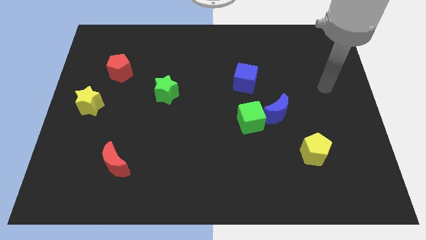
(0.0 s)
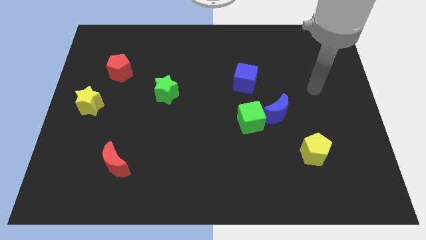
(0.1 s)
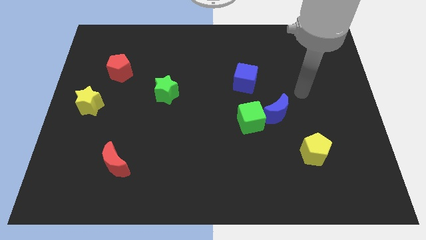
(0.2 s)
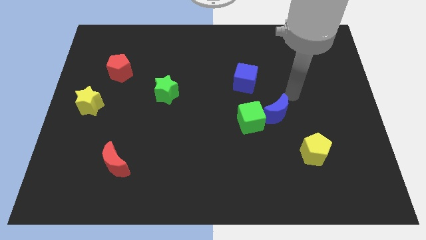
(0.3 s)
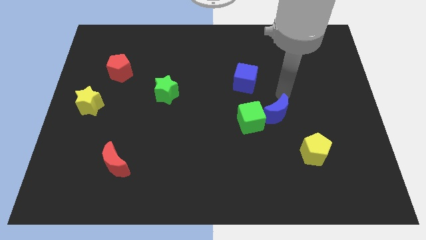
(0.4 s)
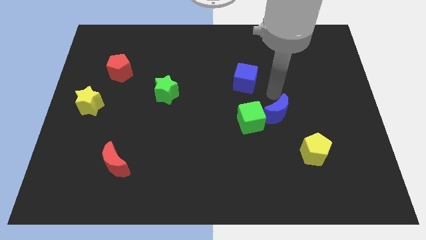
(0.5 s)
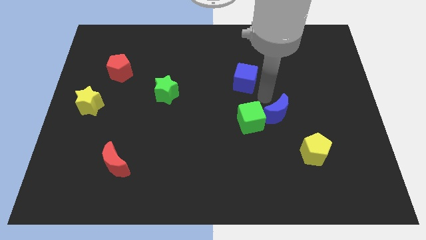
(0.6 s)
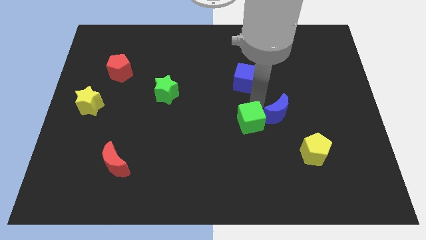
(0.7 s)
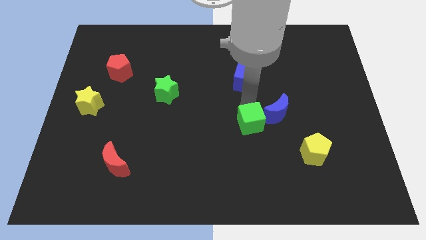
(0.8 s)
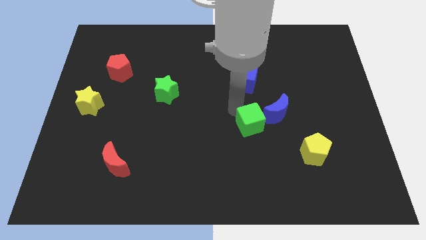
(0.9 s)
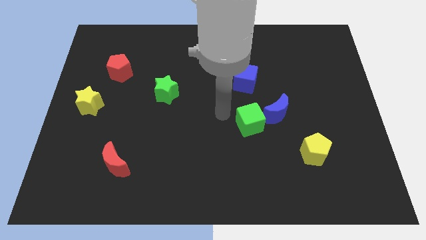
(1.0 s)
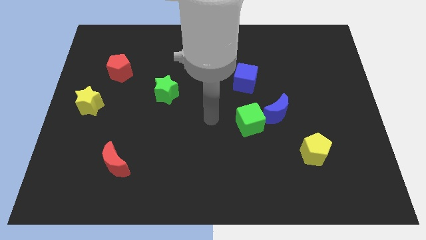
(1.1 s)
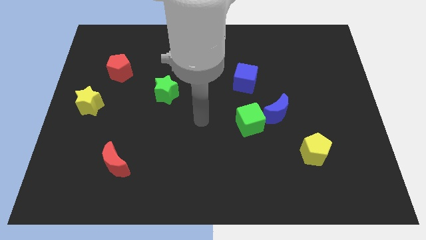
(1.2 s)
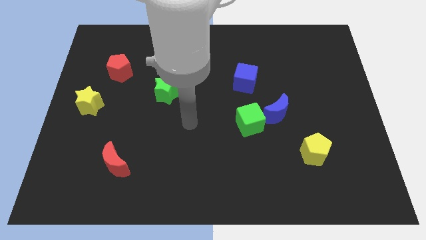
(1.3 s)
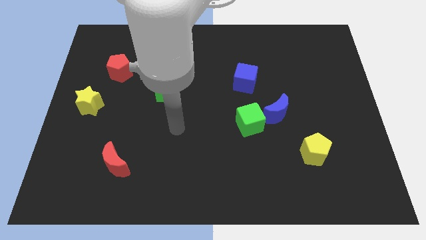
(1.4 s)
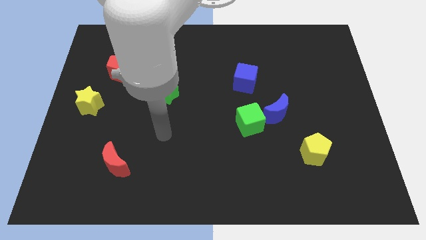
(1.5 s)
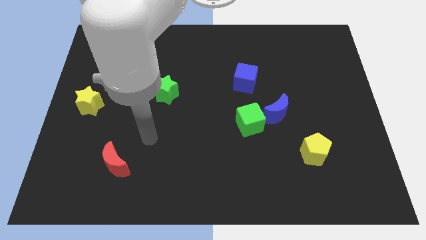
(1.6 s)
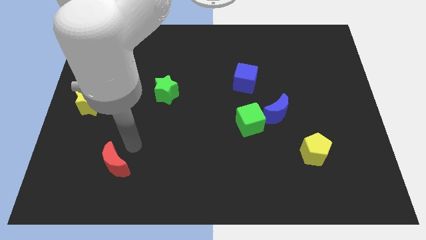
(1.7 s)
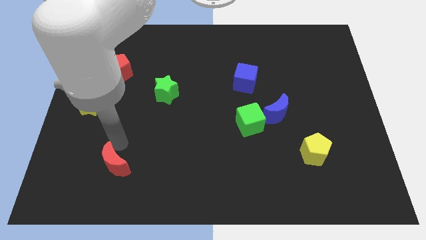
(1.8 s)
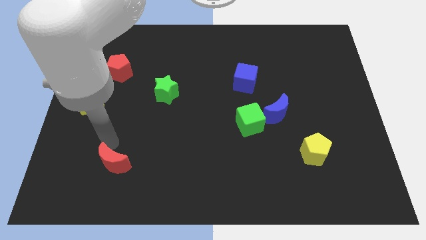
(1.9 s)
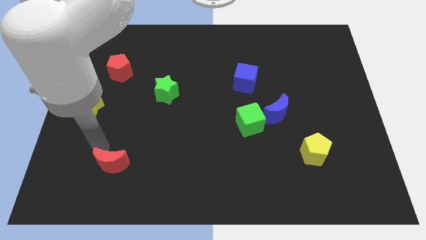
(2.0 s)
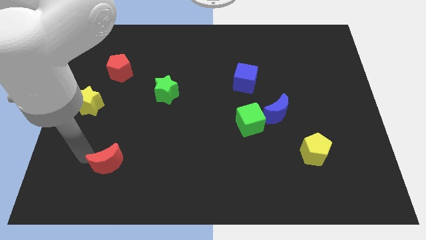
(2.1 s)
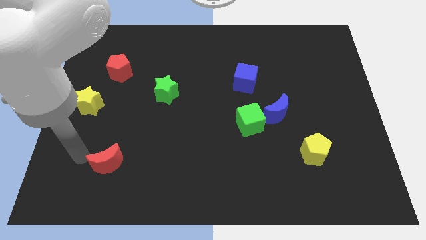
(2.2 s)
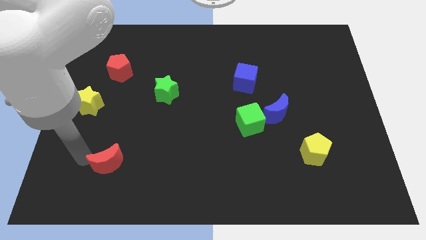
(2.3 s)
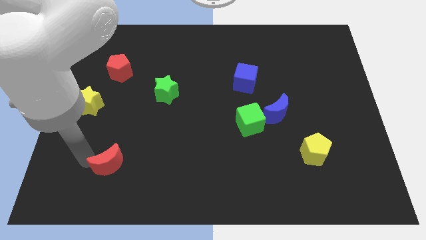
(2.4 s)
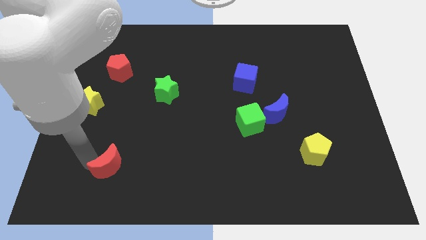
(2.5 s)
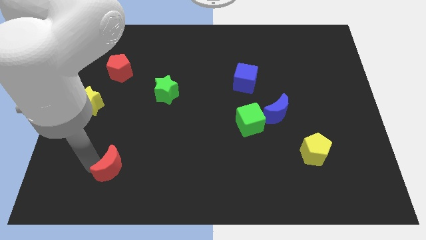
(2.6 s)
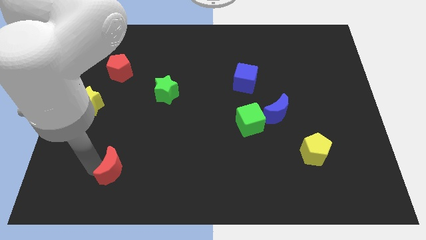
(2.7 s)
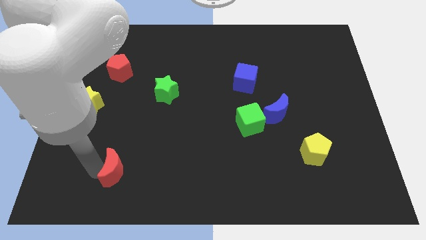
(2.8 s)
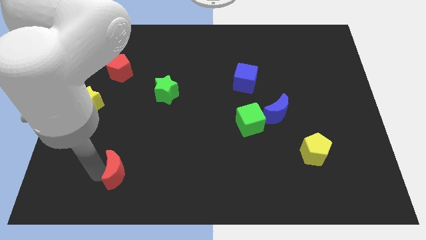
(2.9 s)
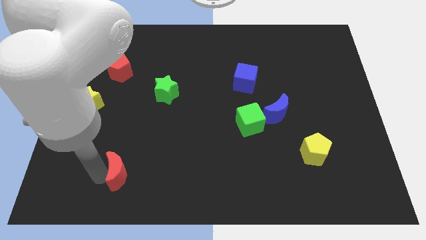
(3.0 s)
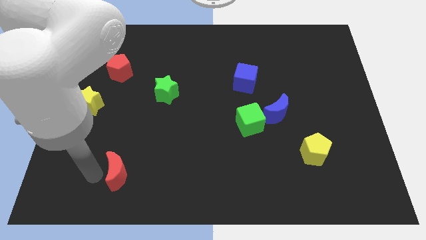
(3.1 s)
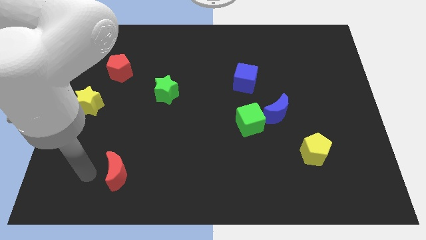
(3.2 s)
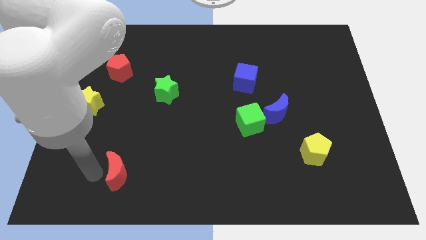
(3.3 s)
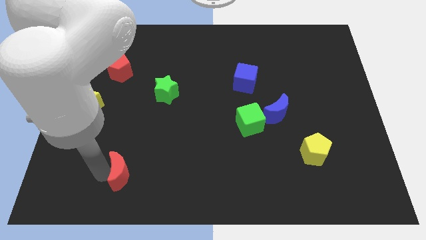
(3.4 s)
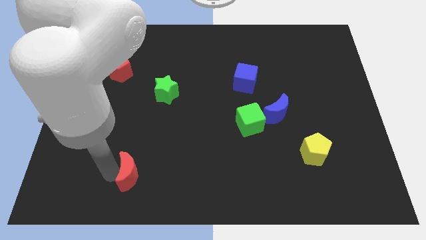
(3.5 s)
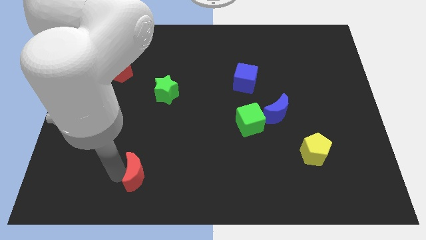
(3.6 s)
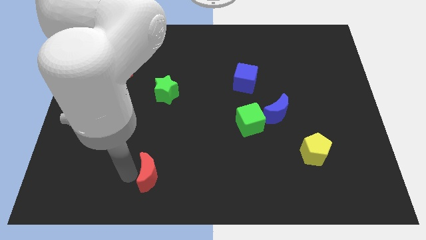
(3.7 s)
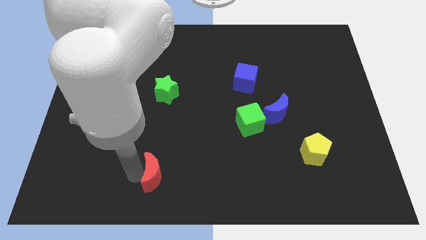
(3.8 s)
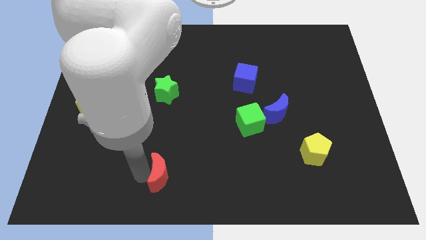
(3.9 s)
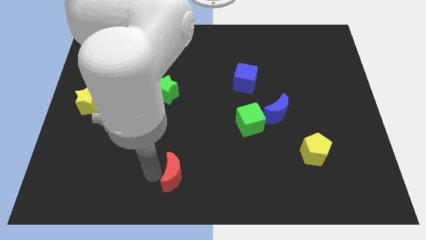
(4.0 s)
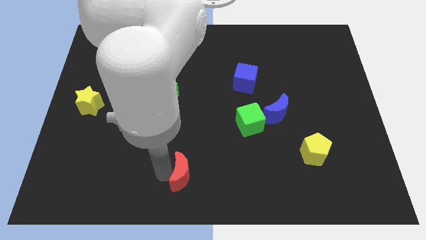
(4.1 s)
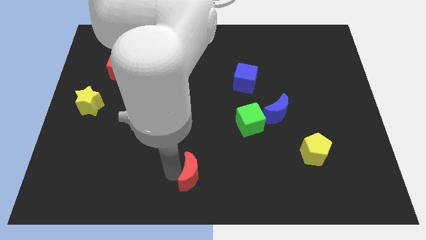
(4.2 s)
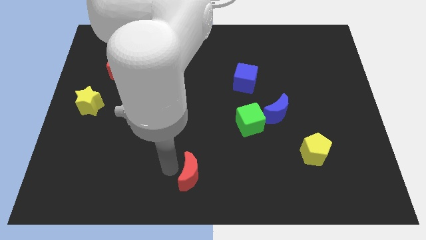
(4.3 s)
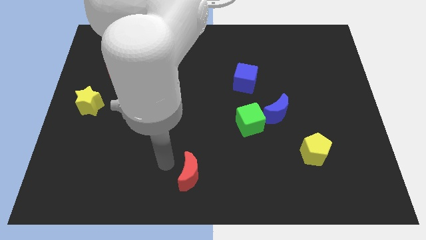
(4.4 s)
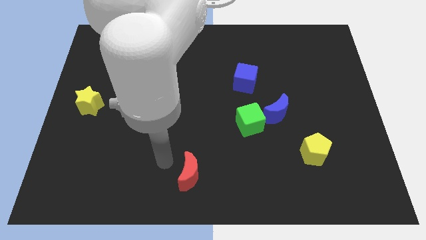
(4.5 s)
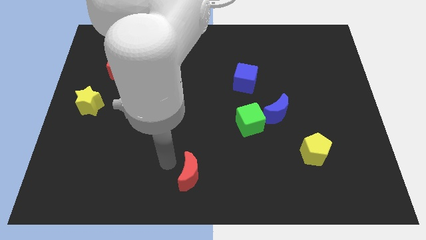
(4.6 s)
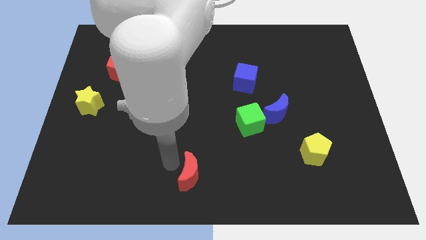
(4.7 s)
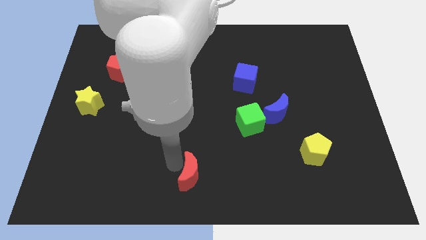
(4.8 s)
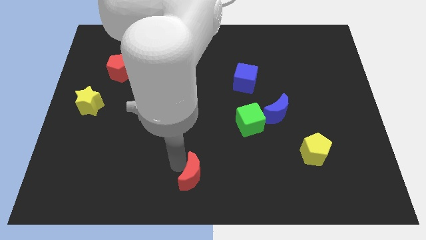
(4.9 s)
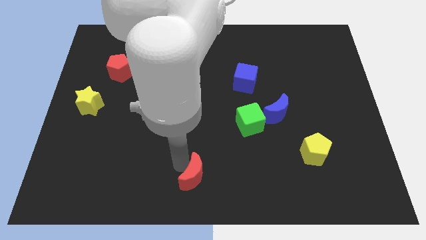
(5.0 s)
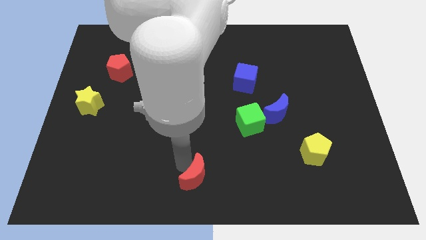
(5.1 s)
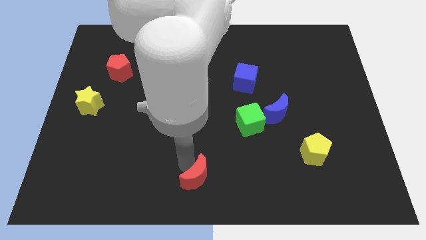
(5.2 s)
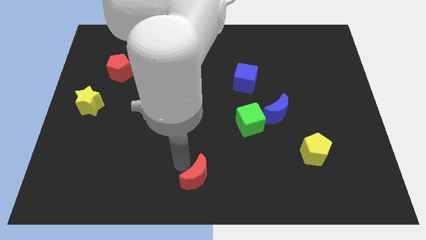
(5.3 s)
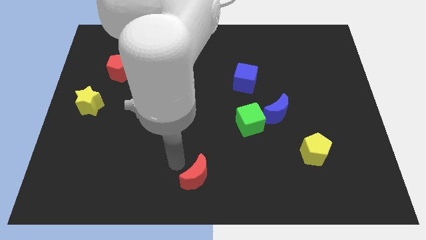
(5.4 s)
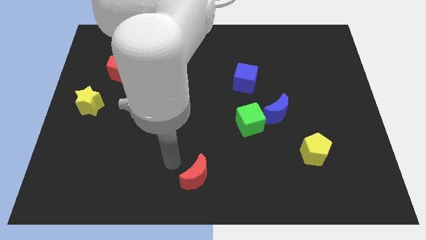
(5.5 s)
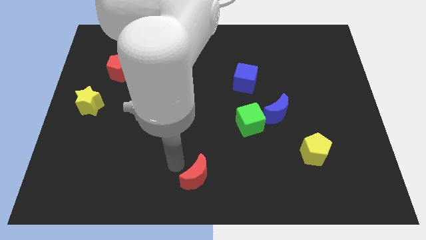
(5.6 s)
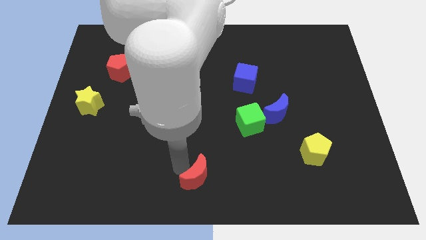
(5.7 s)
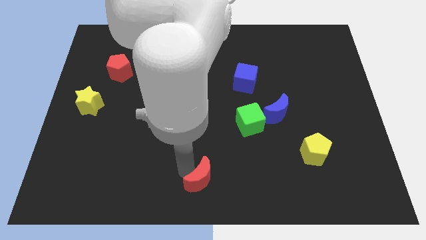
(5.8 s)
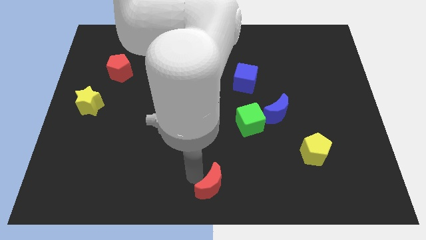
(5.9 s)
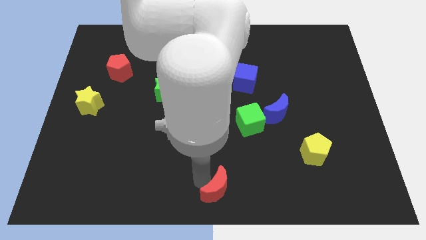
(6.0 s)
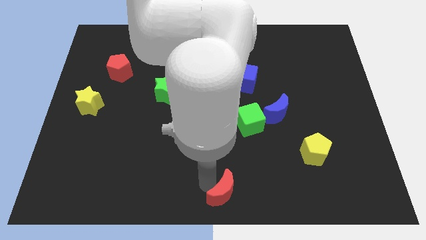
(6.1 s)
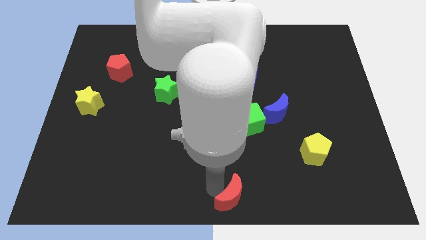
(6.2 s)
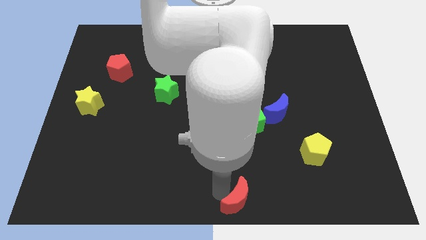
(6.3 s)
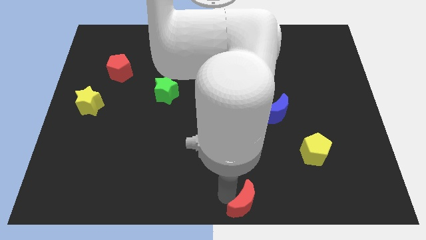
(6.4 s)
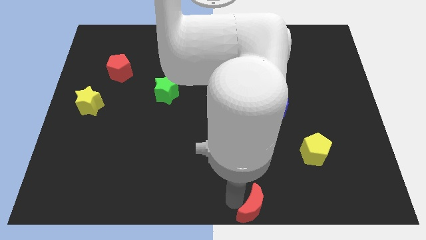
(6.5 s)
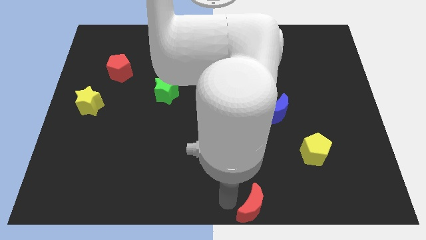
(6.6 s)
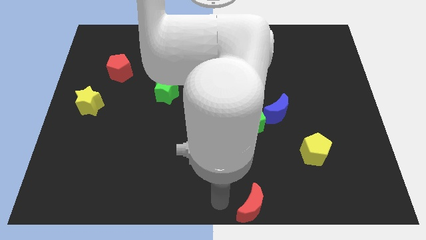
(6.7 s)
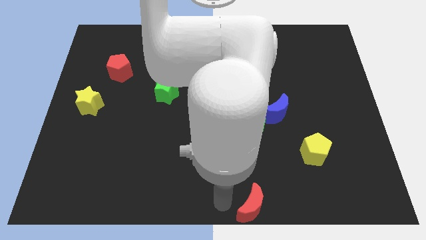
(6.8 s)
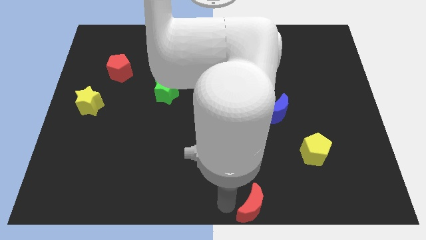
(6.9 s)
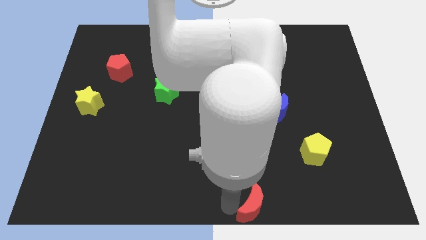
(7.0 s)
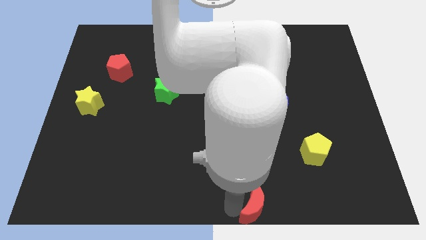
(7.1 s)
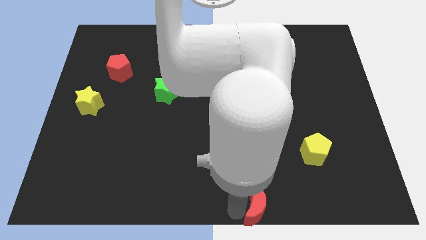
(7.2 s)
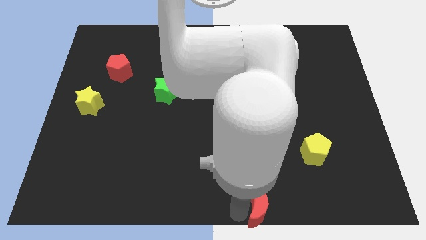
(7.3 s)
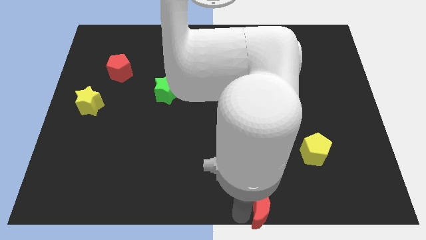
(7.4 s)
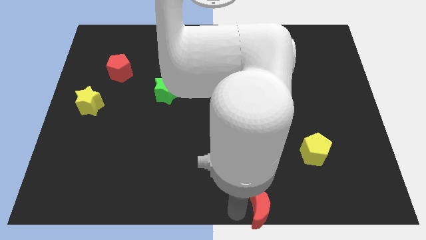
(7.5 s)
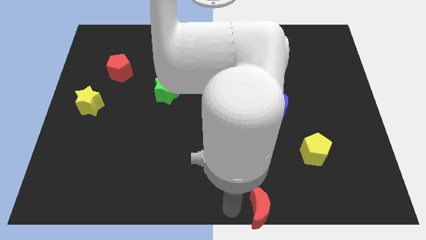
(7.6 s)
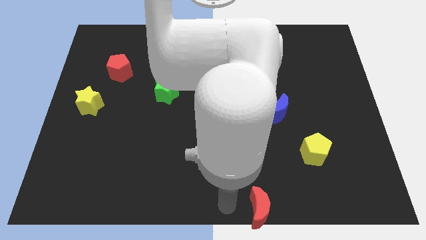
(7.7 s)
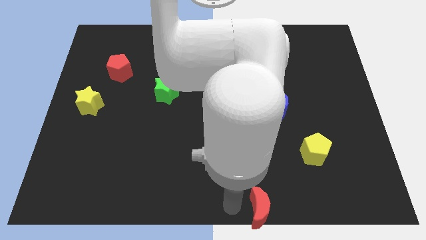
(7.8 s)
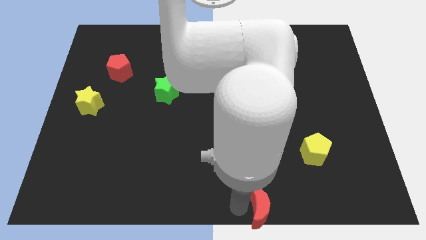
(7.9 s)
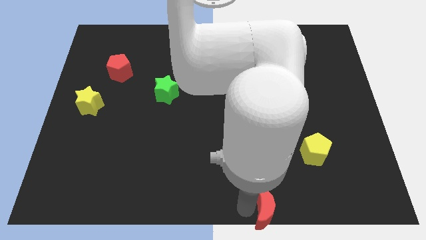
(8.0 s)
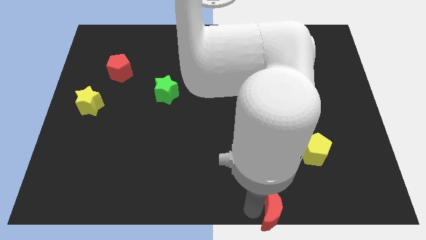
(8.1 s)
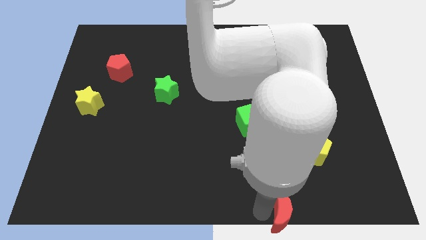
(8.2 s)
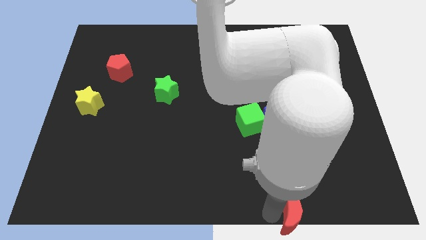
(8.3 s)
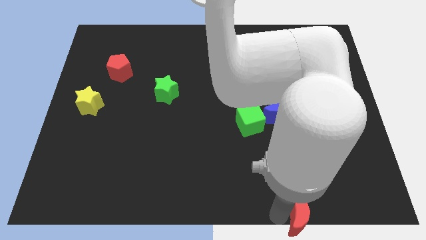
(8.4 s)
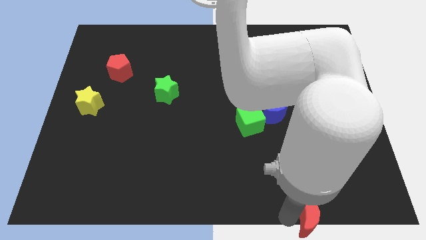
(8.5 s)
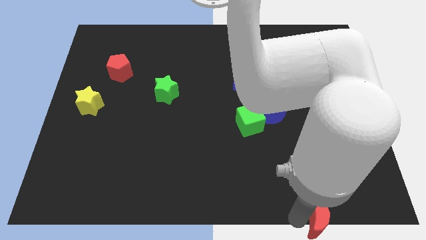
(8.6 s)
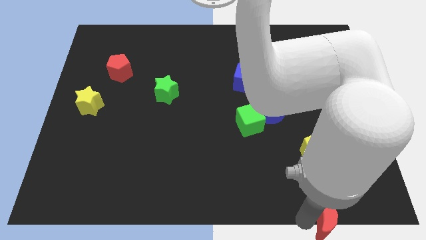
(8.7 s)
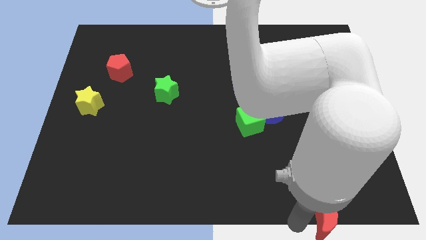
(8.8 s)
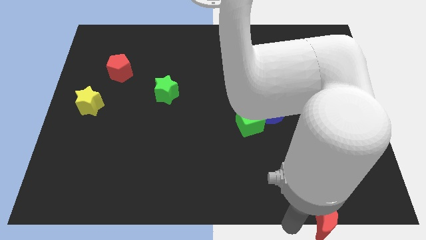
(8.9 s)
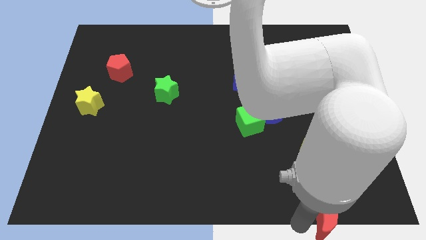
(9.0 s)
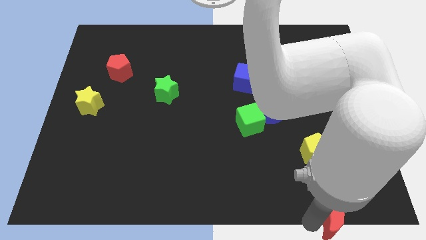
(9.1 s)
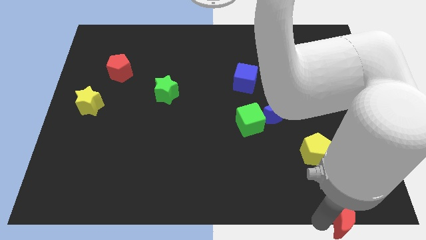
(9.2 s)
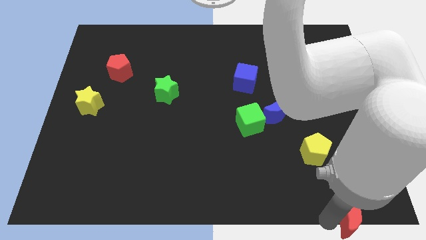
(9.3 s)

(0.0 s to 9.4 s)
put the red moon to the bottom right
